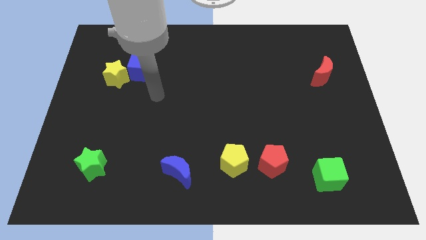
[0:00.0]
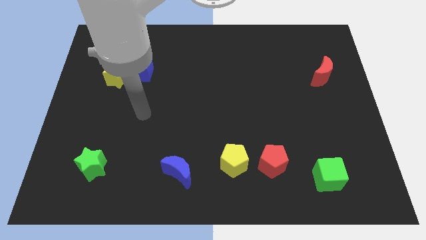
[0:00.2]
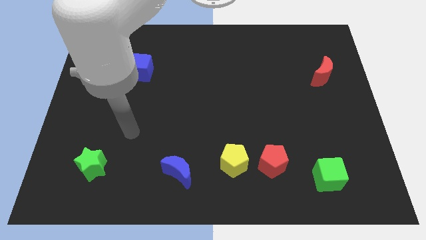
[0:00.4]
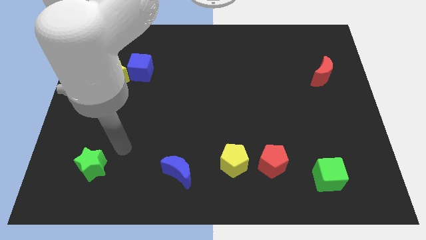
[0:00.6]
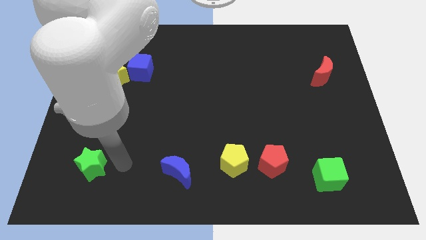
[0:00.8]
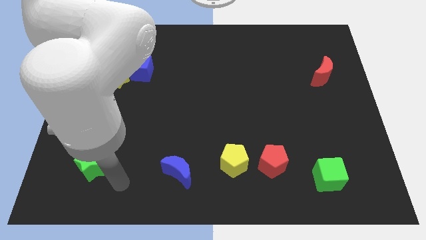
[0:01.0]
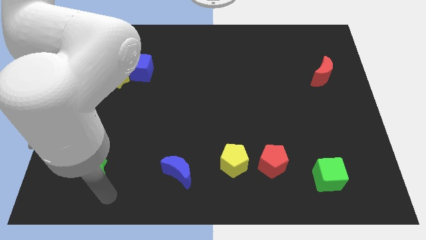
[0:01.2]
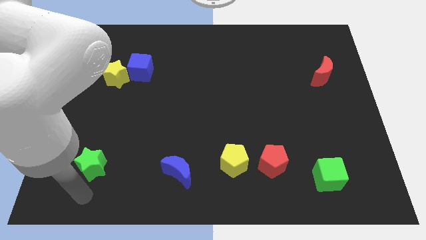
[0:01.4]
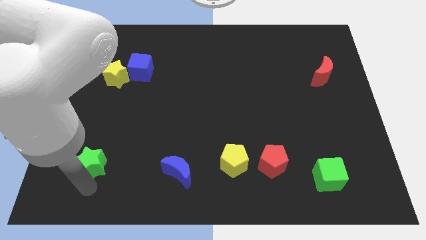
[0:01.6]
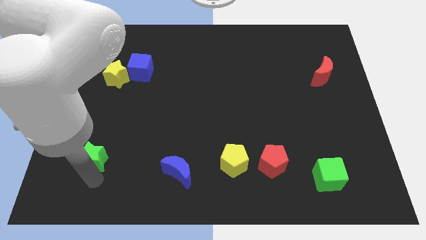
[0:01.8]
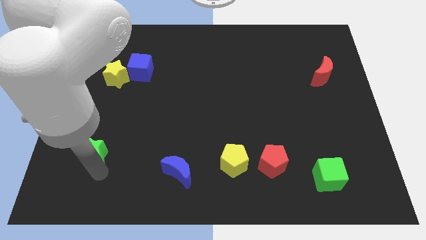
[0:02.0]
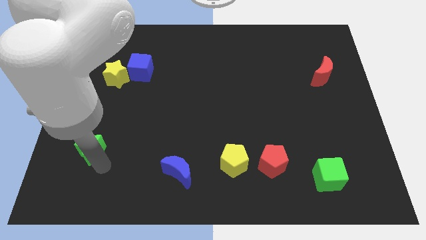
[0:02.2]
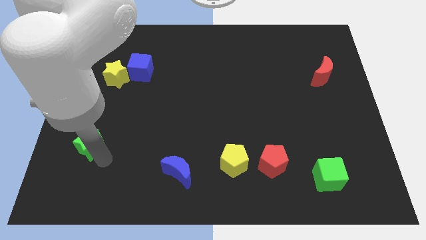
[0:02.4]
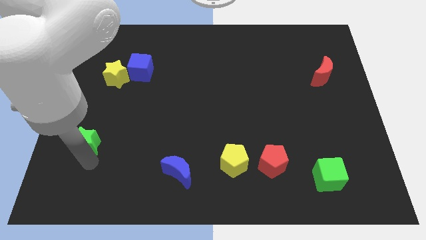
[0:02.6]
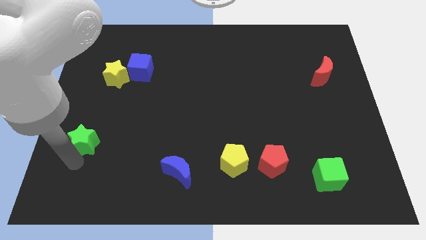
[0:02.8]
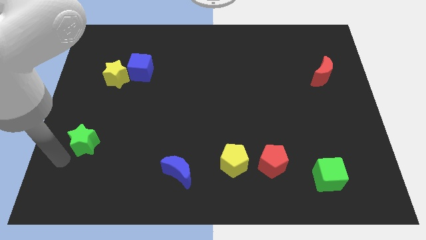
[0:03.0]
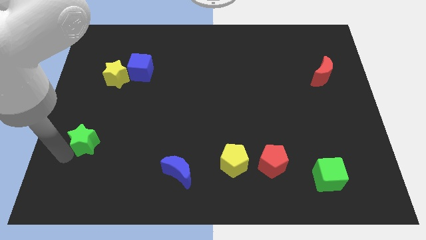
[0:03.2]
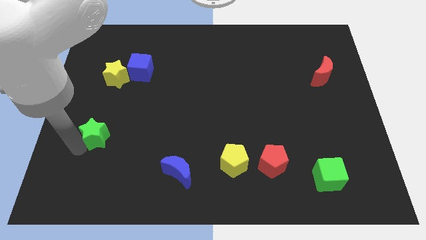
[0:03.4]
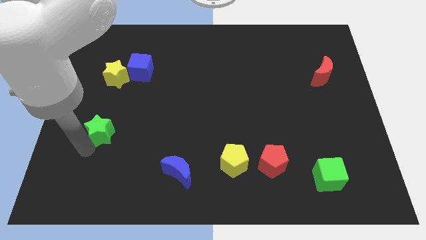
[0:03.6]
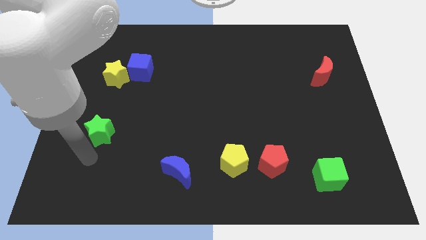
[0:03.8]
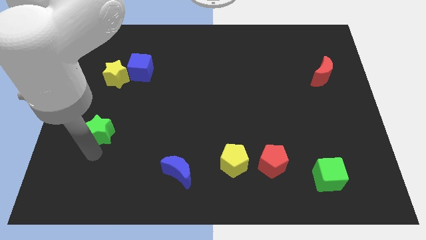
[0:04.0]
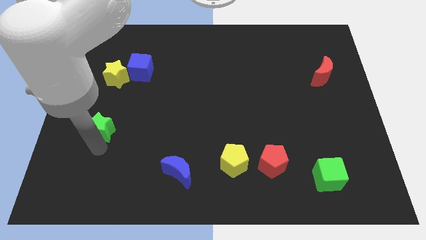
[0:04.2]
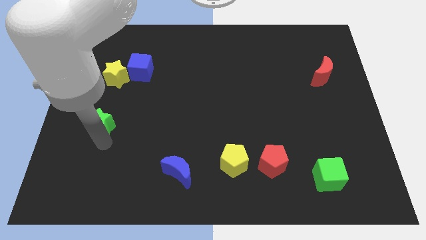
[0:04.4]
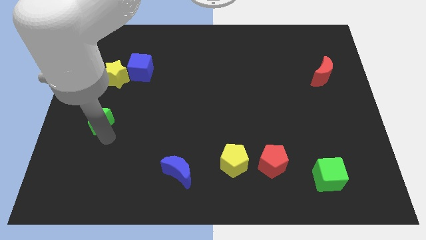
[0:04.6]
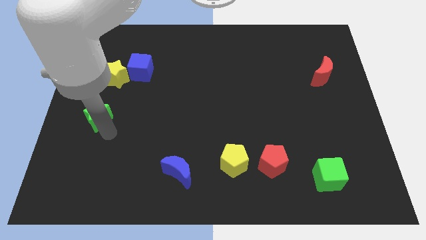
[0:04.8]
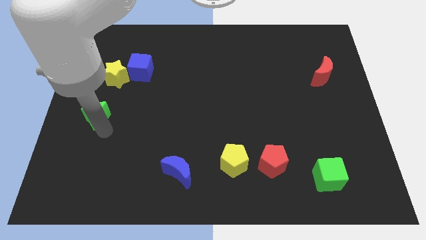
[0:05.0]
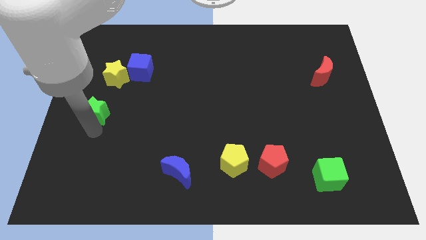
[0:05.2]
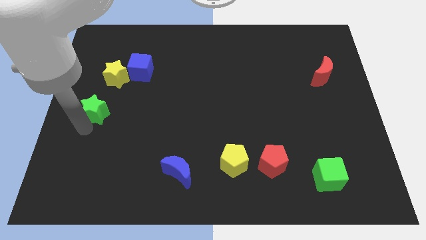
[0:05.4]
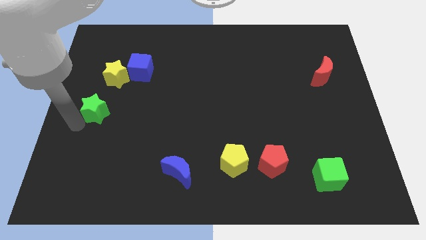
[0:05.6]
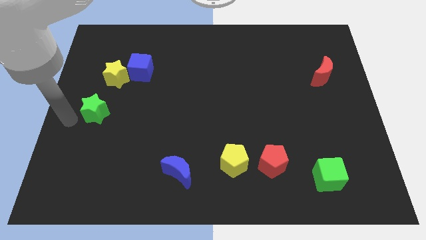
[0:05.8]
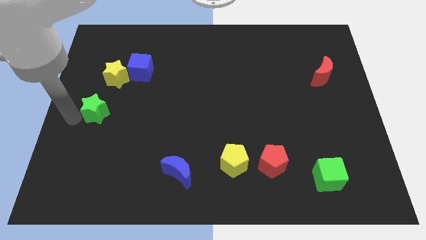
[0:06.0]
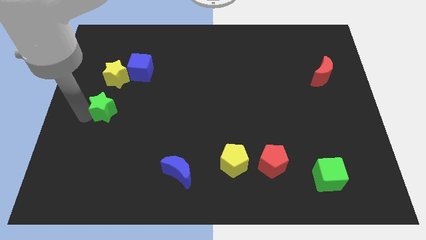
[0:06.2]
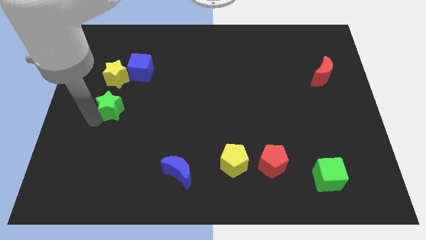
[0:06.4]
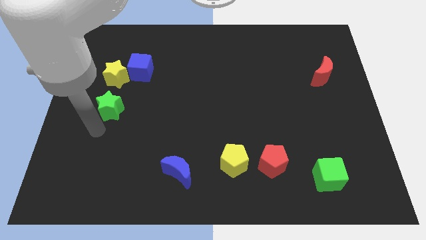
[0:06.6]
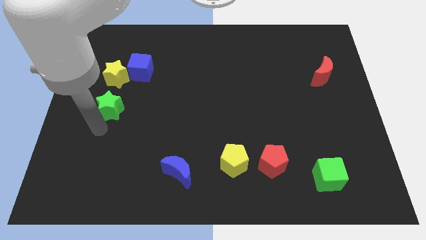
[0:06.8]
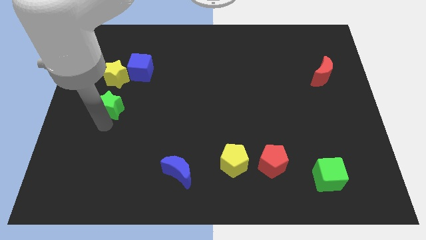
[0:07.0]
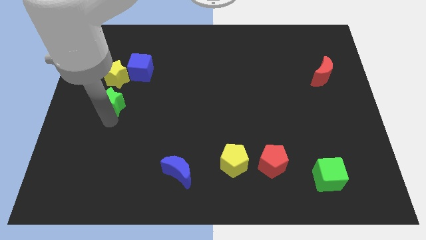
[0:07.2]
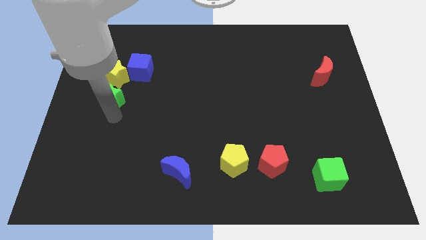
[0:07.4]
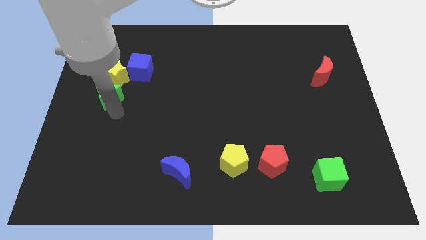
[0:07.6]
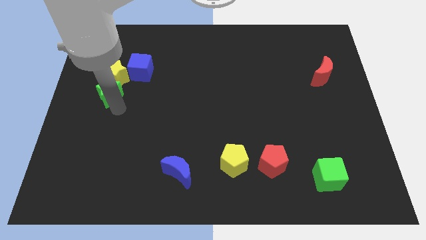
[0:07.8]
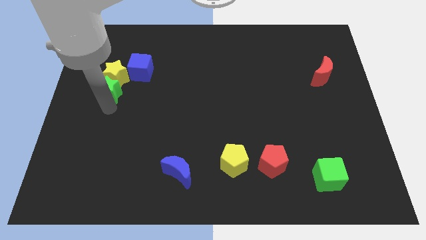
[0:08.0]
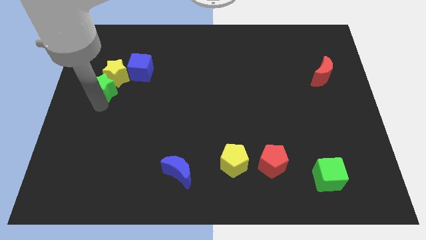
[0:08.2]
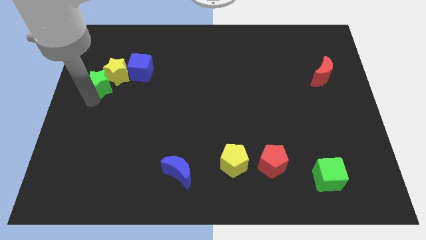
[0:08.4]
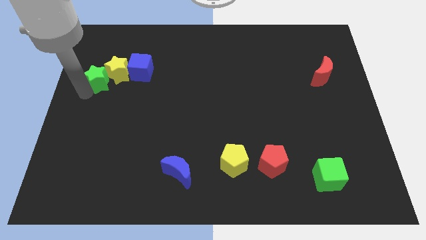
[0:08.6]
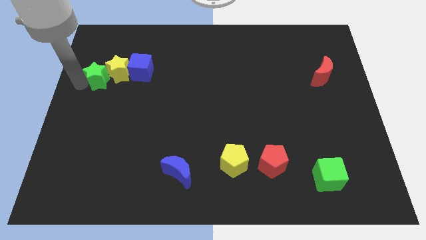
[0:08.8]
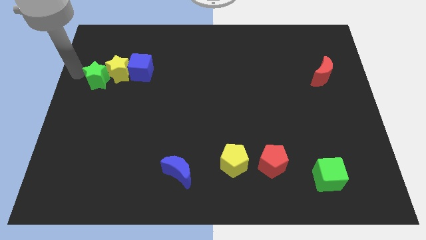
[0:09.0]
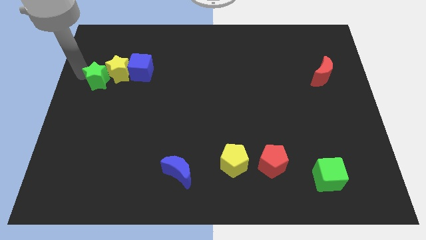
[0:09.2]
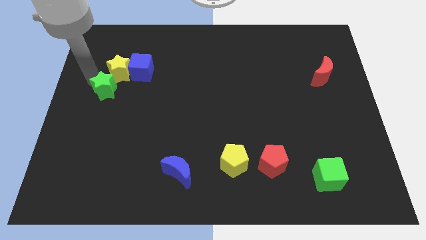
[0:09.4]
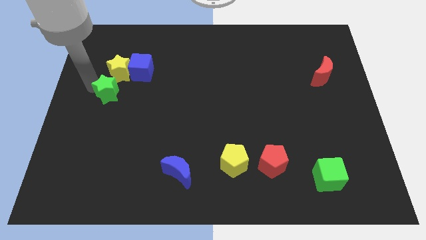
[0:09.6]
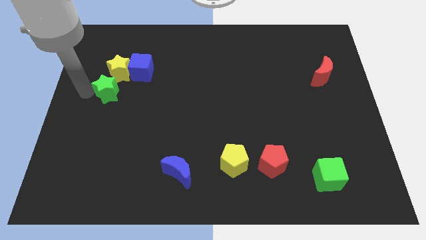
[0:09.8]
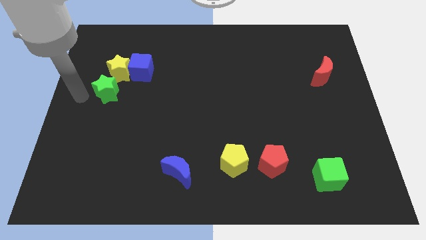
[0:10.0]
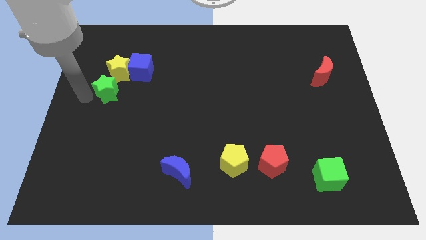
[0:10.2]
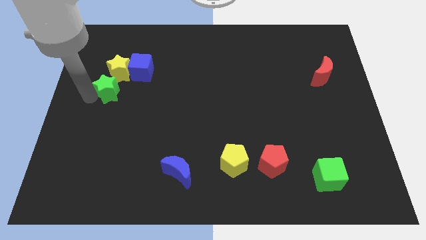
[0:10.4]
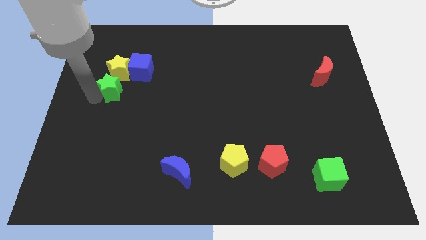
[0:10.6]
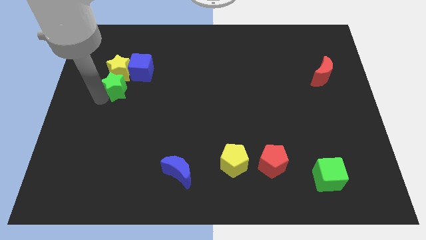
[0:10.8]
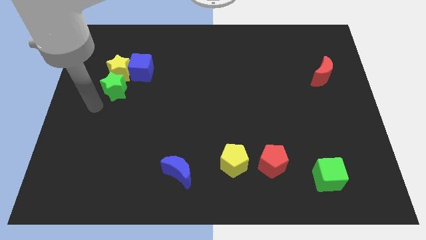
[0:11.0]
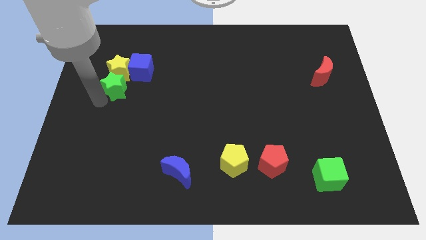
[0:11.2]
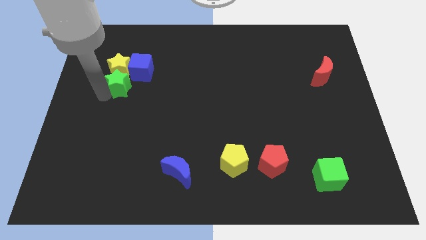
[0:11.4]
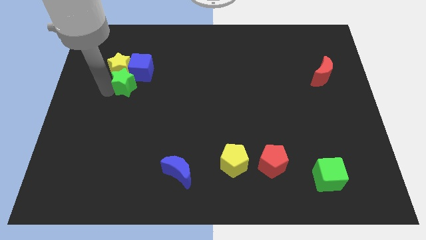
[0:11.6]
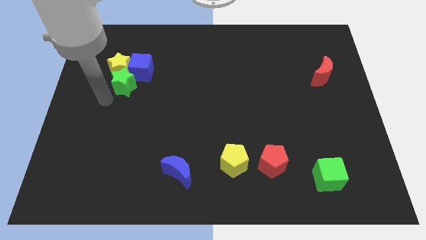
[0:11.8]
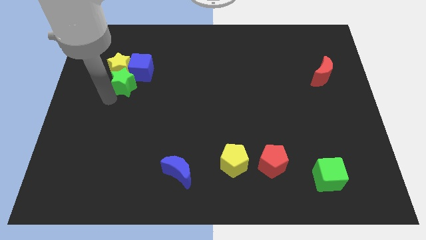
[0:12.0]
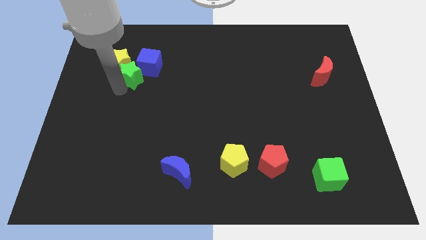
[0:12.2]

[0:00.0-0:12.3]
slide the green star close to the blue cube
